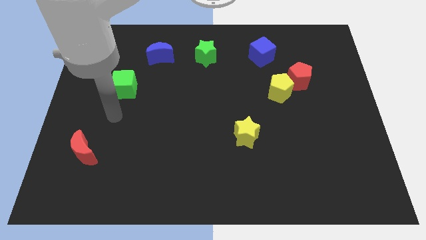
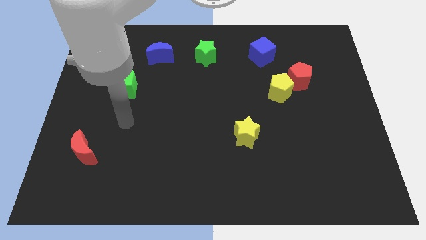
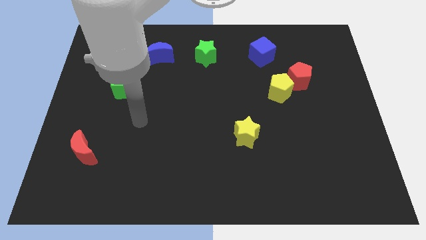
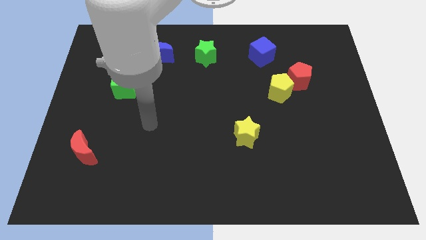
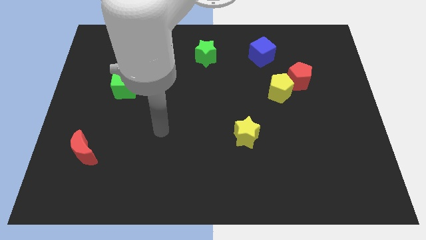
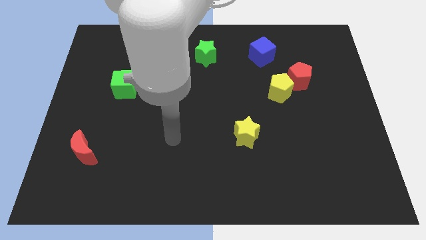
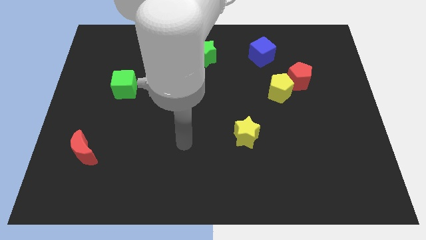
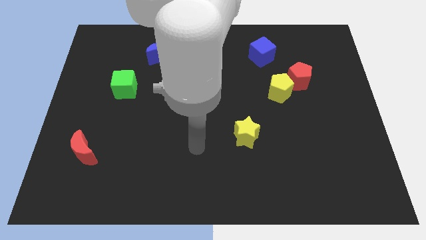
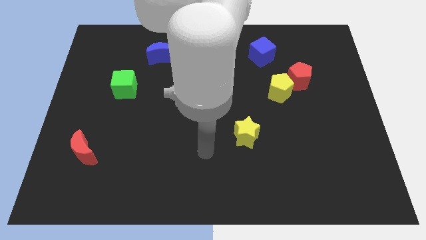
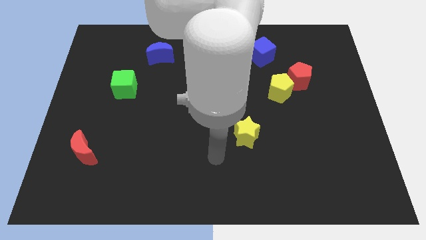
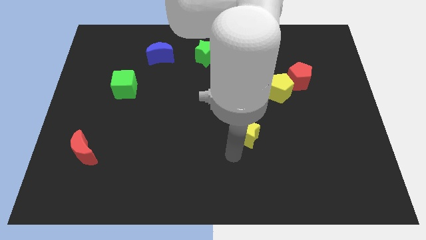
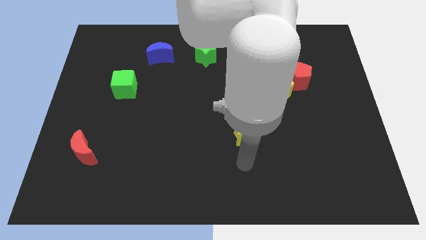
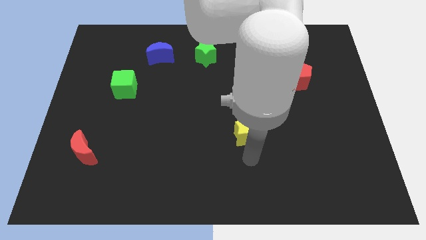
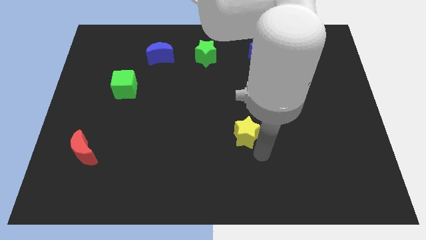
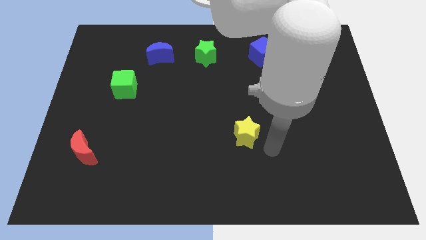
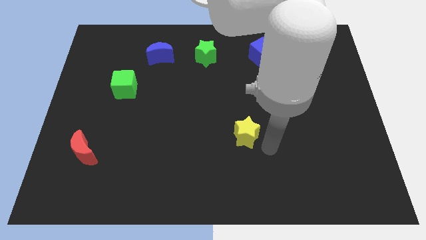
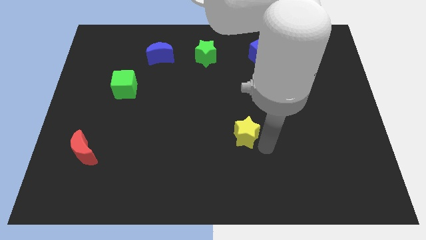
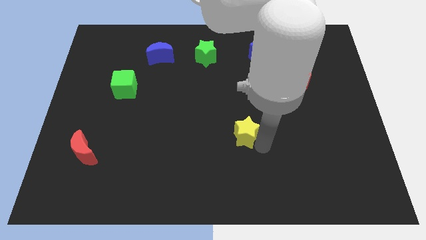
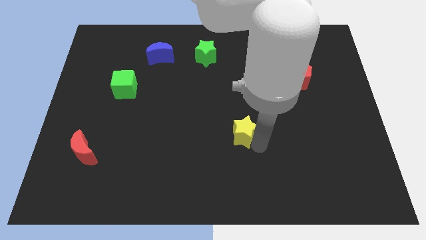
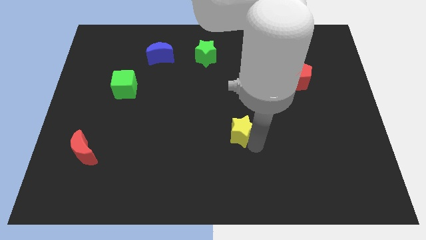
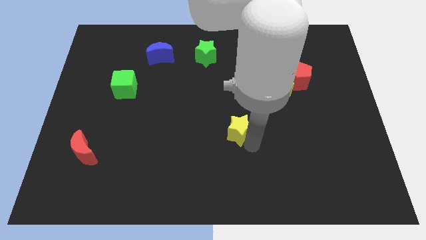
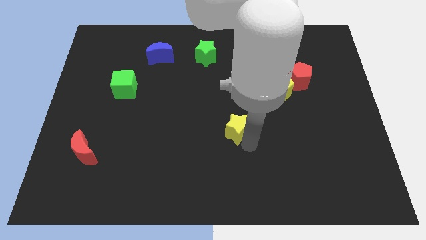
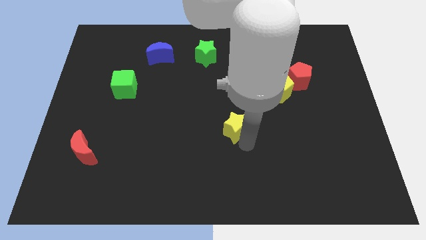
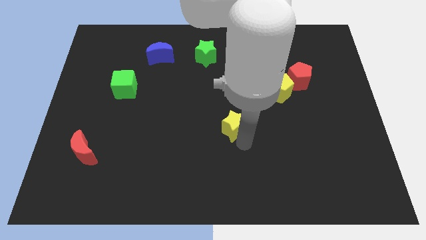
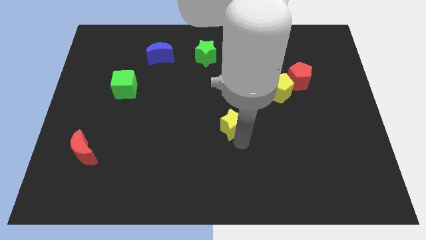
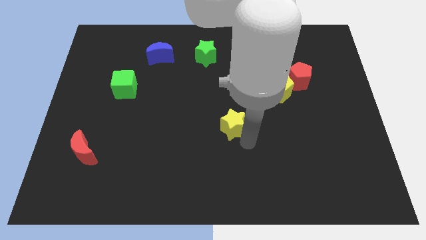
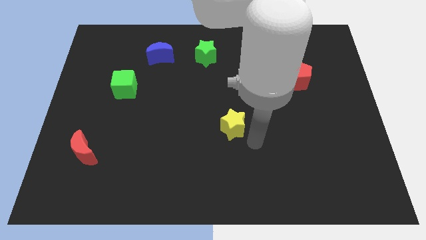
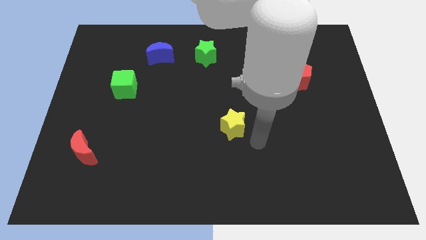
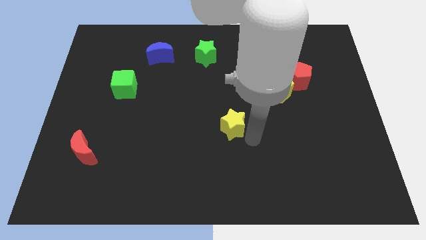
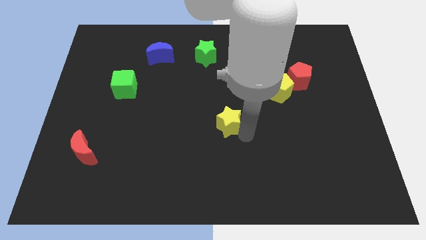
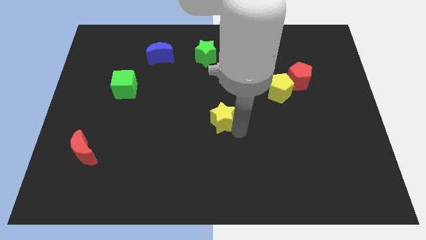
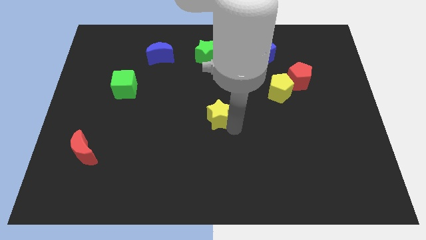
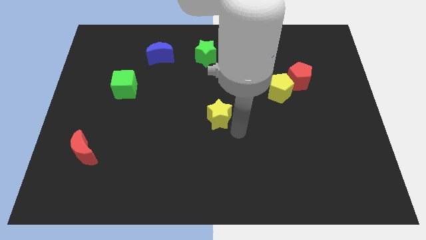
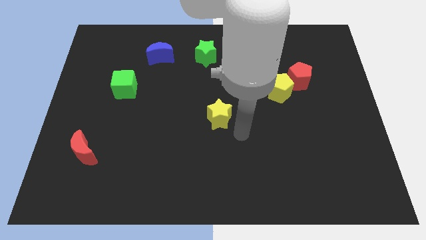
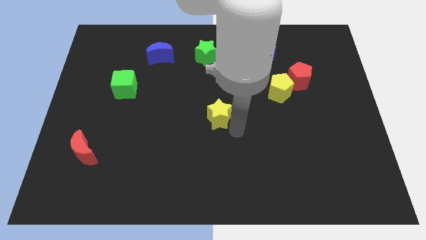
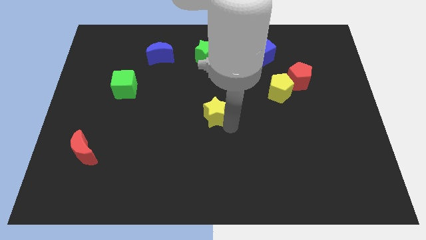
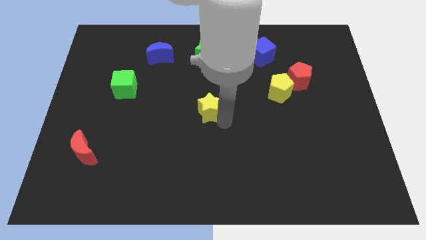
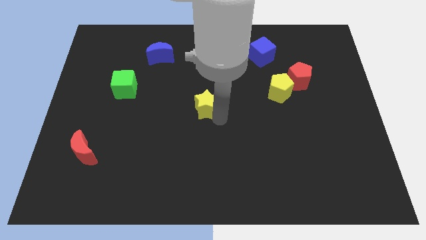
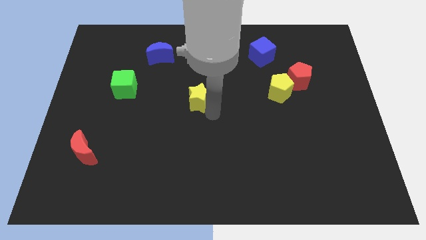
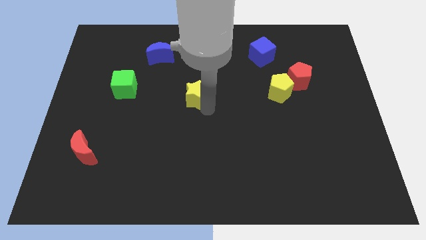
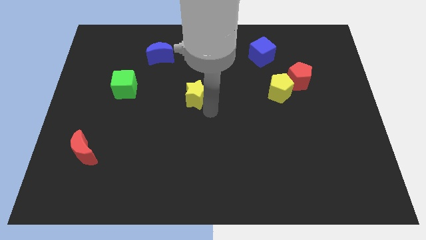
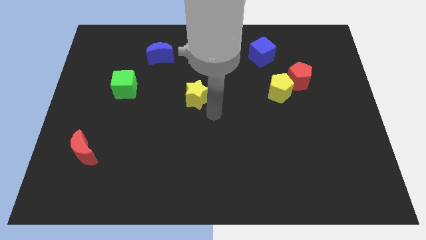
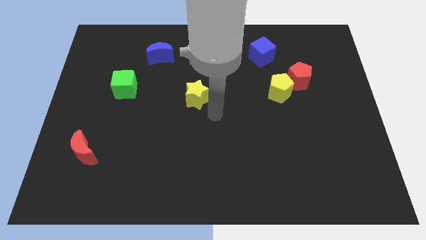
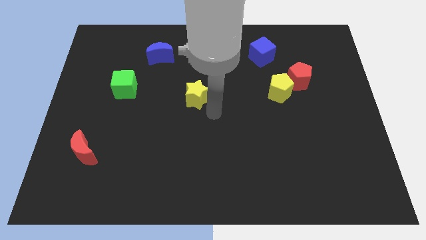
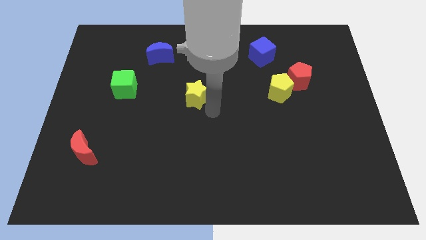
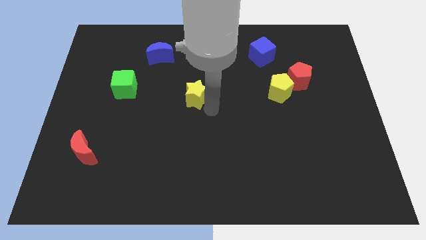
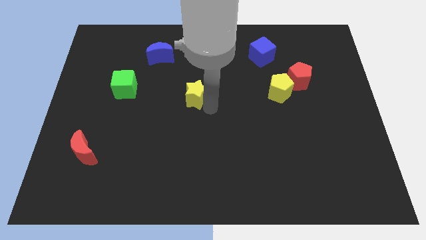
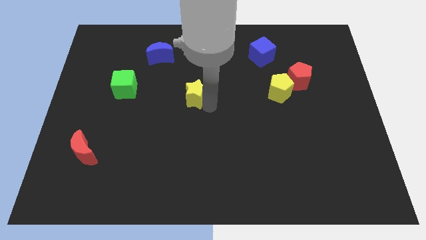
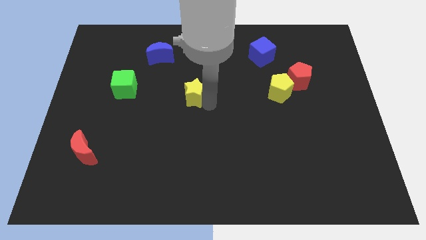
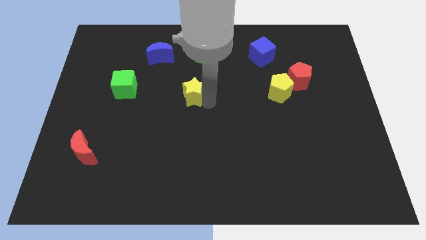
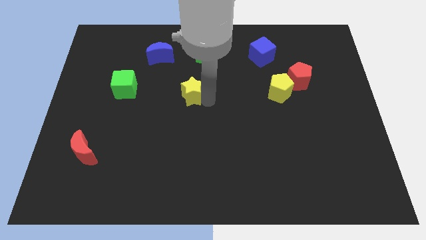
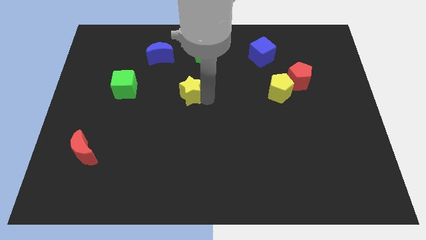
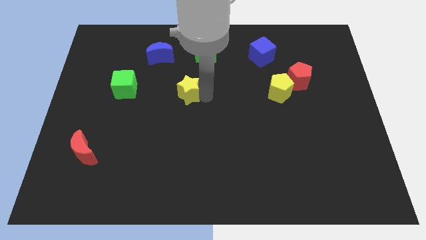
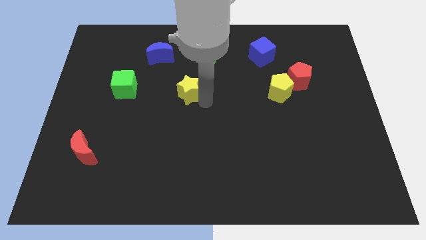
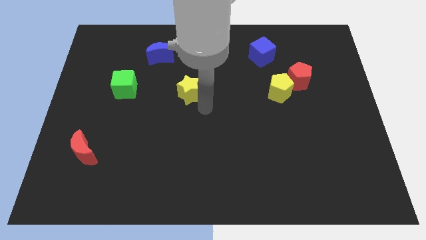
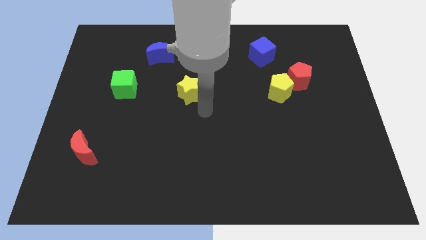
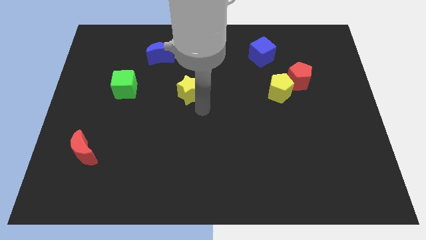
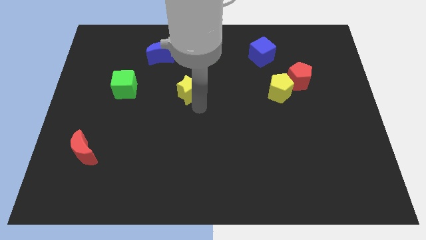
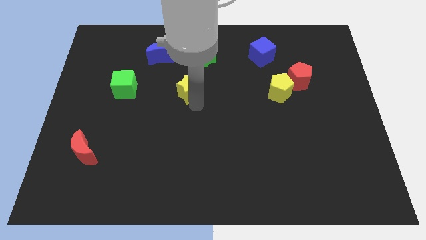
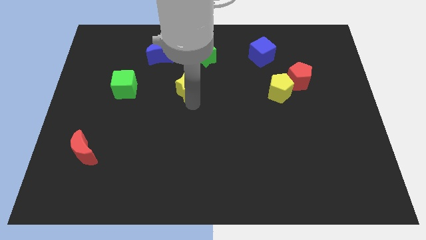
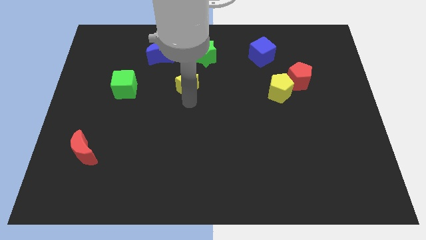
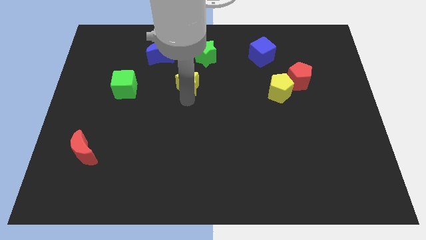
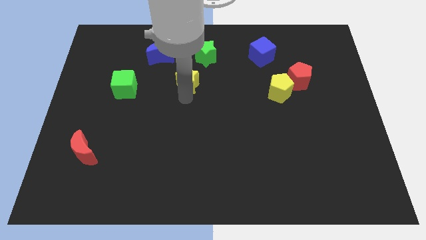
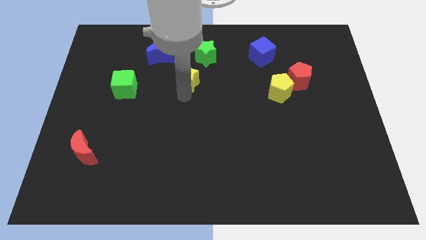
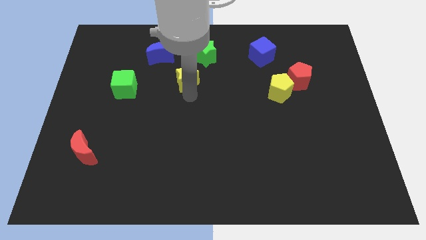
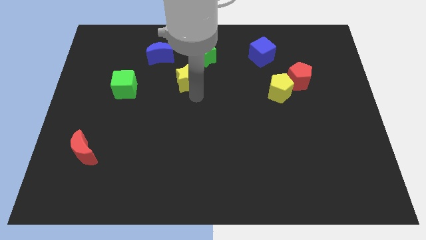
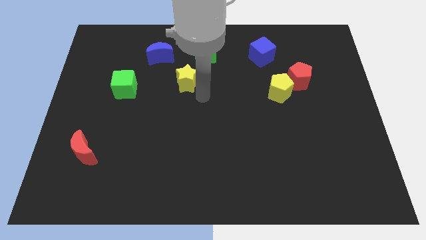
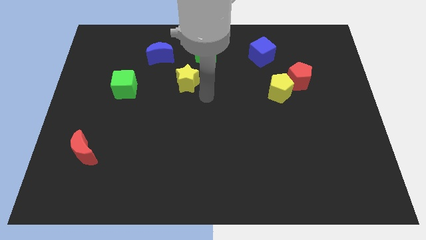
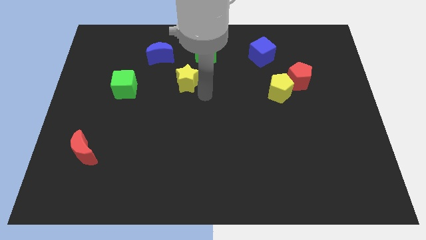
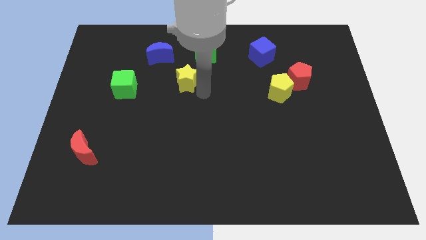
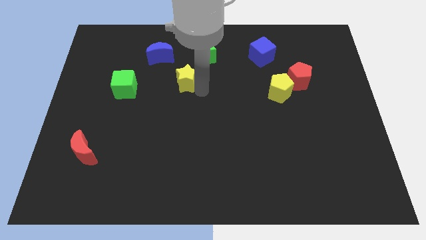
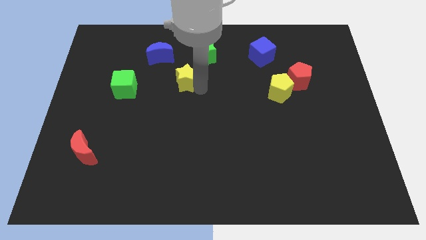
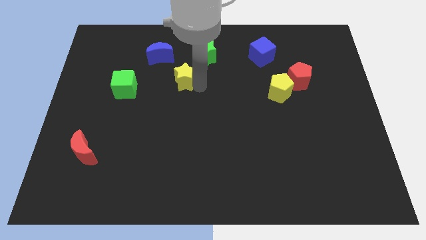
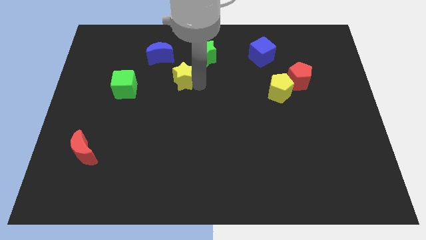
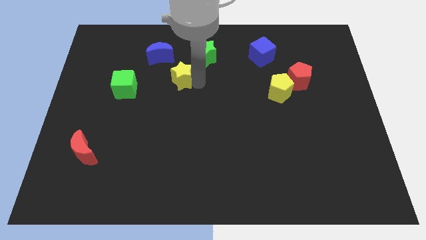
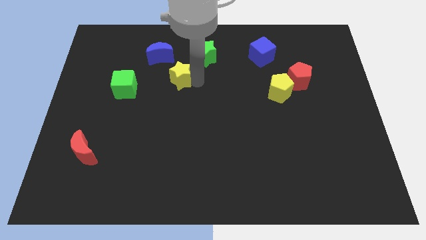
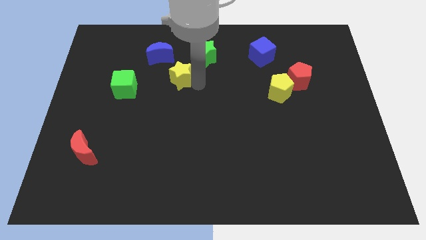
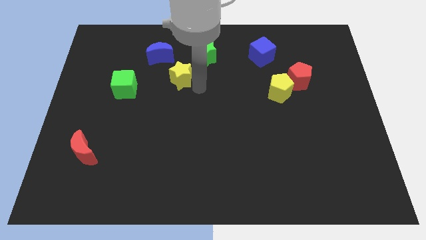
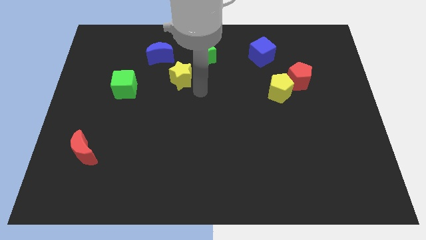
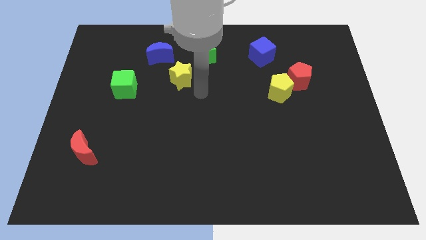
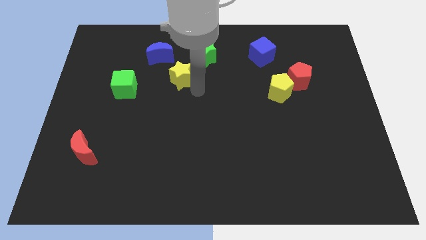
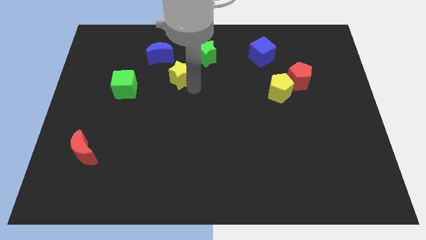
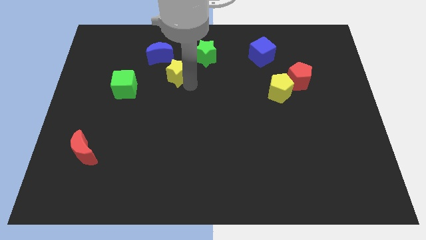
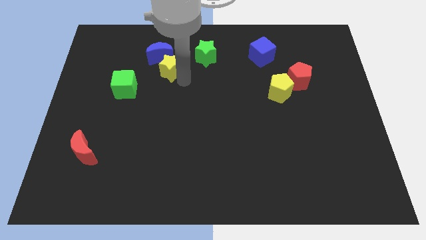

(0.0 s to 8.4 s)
push the yellow star towards the blue moon
